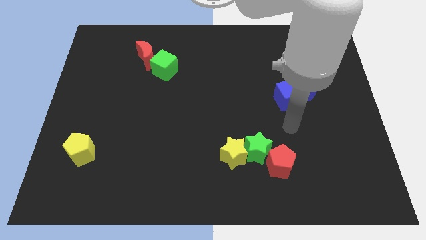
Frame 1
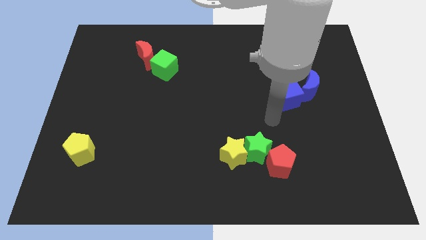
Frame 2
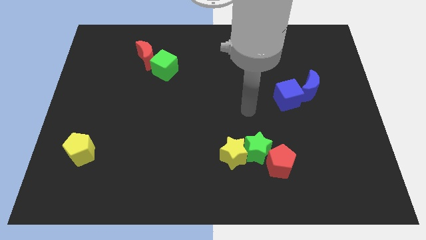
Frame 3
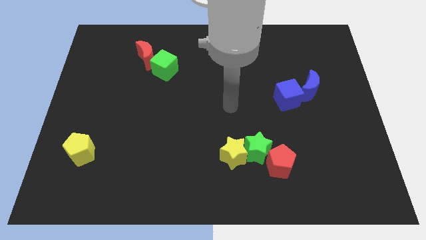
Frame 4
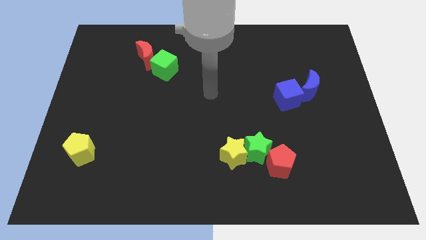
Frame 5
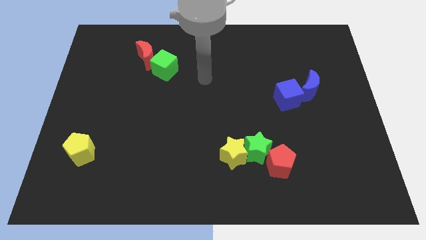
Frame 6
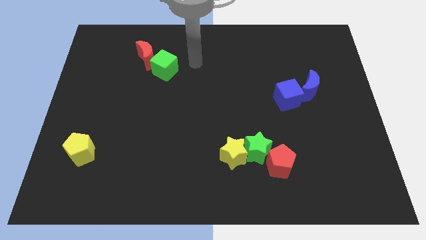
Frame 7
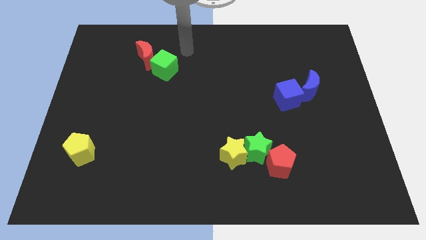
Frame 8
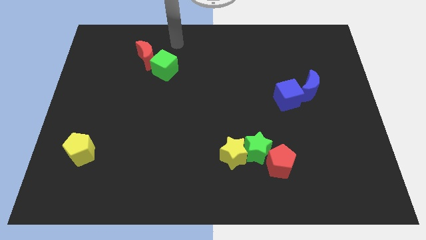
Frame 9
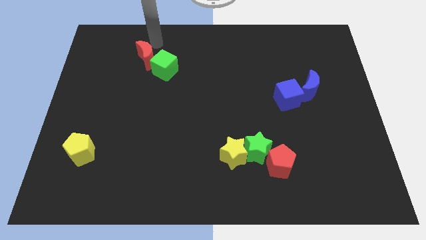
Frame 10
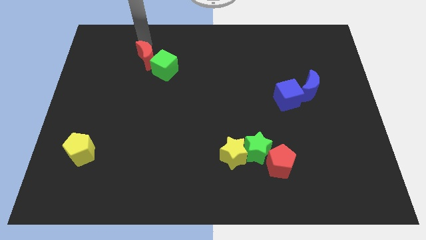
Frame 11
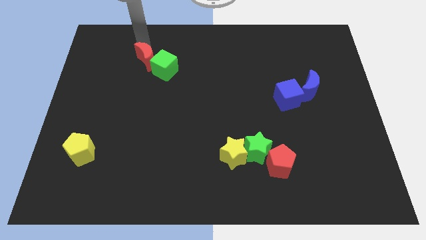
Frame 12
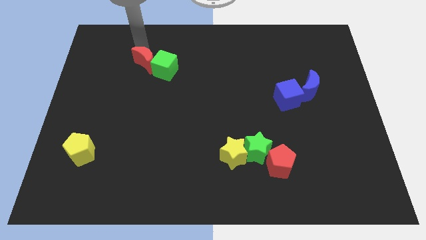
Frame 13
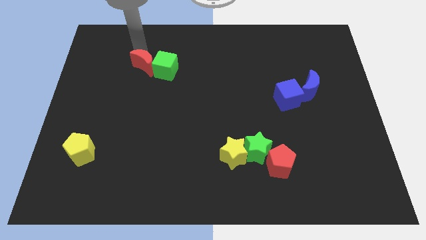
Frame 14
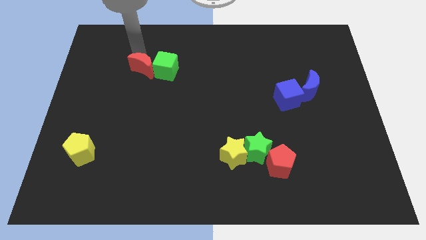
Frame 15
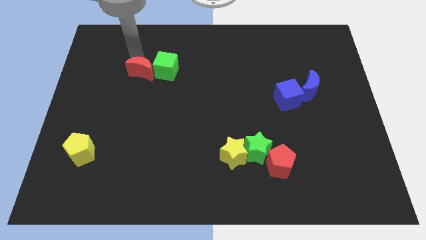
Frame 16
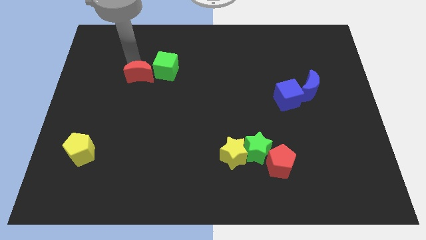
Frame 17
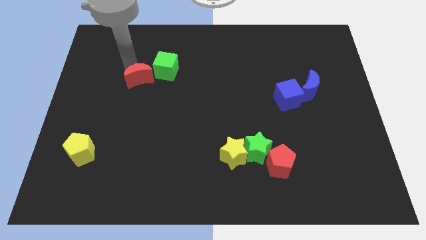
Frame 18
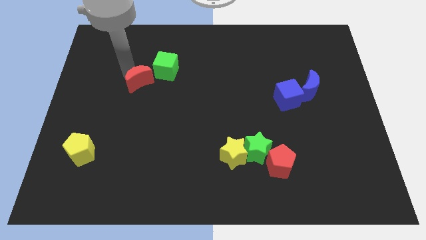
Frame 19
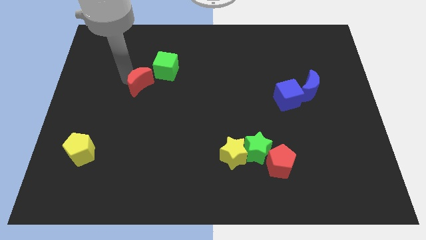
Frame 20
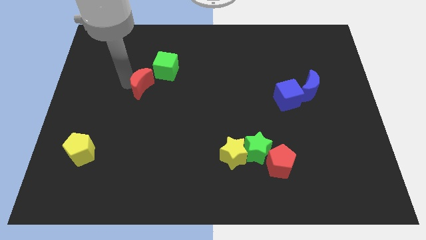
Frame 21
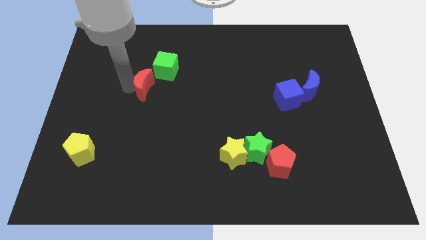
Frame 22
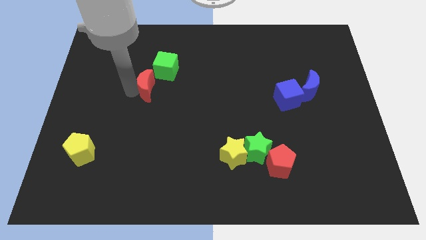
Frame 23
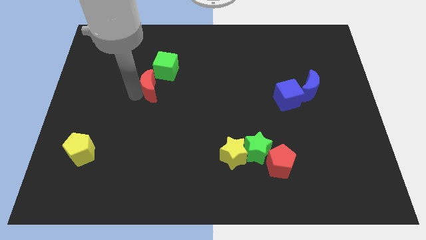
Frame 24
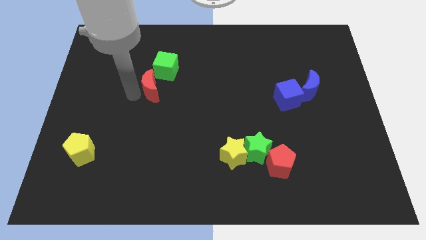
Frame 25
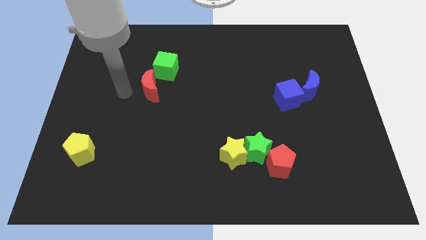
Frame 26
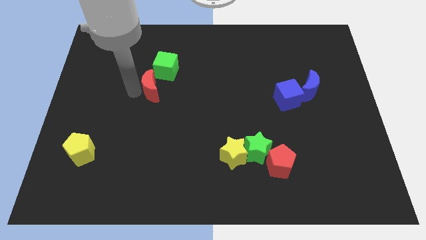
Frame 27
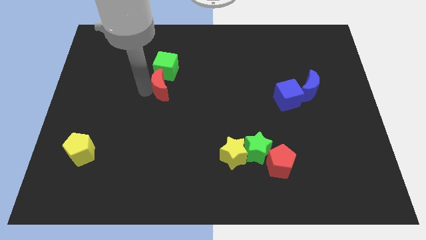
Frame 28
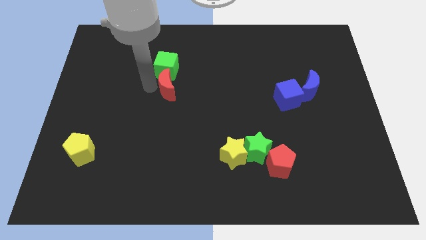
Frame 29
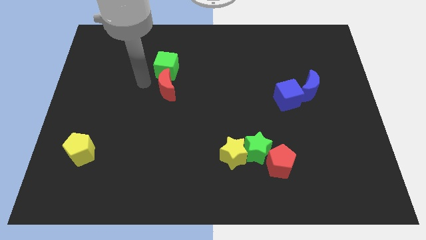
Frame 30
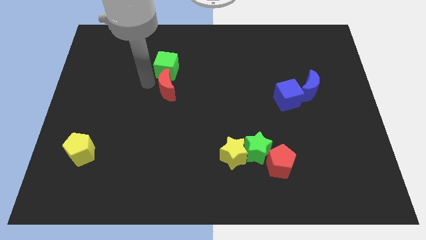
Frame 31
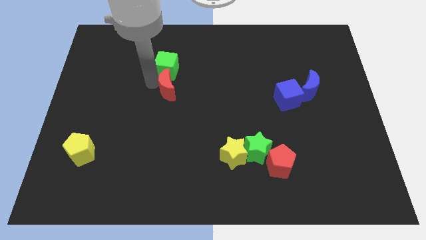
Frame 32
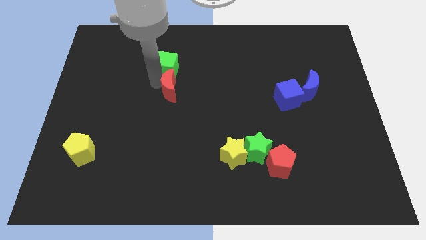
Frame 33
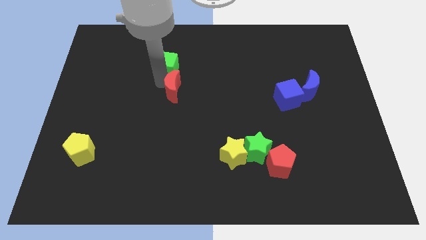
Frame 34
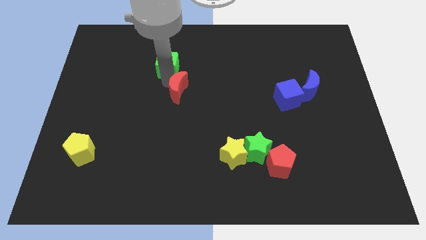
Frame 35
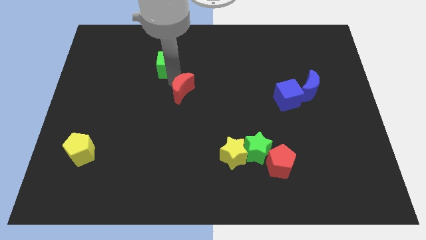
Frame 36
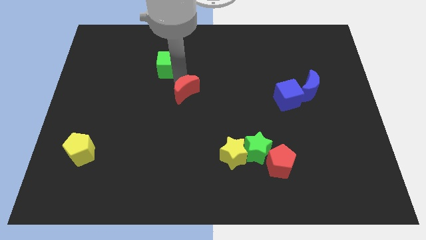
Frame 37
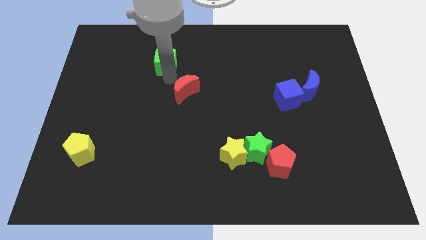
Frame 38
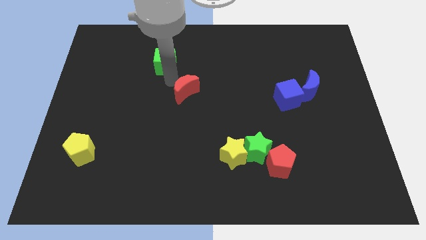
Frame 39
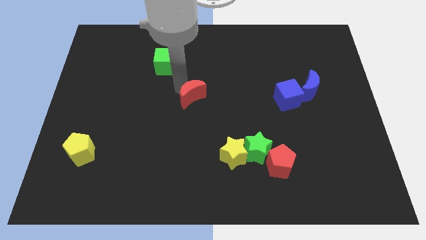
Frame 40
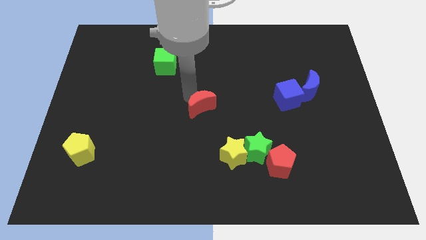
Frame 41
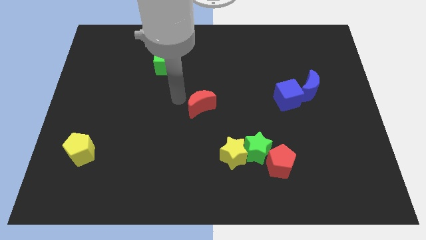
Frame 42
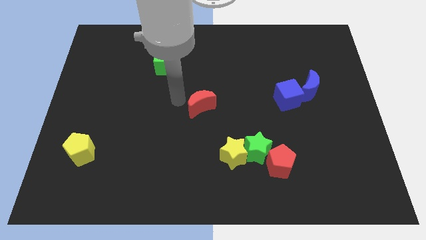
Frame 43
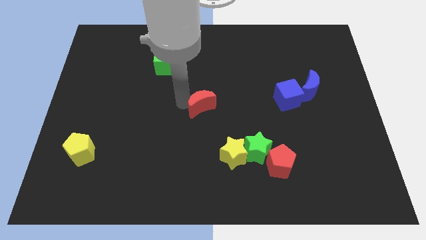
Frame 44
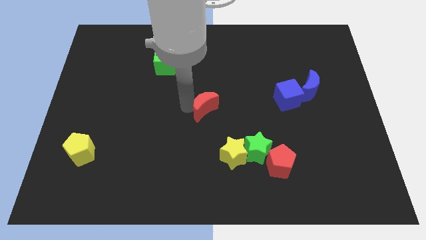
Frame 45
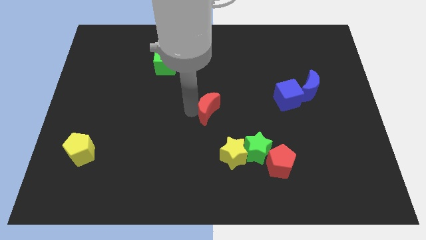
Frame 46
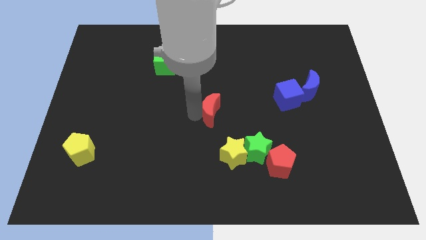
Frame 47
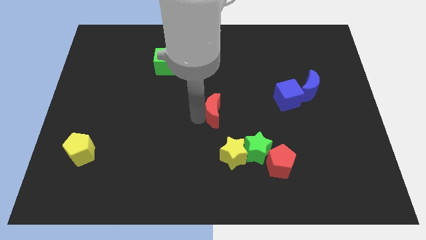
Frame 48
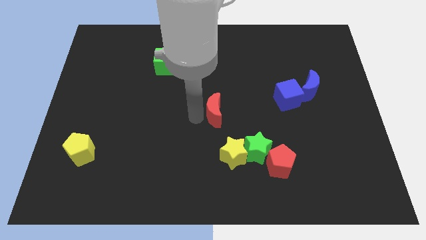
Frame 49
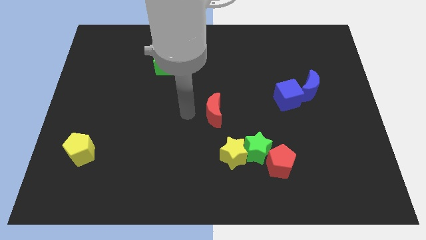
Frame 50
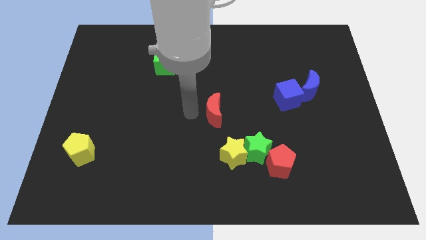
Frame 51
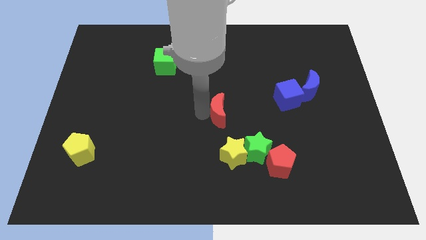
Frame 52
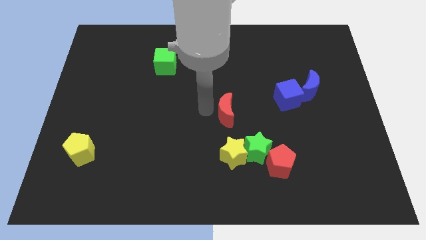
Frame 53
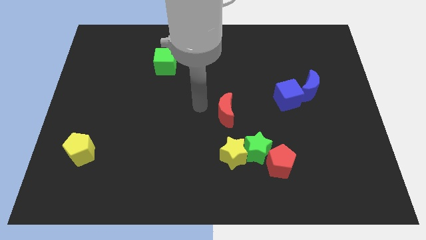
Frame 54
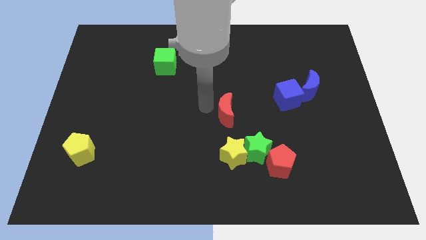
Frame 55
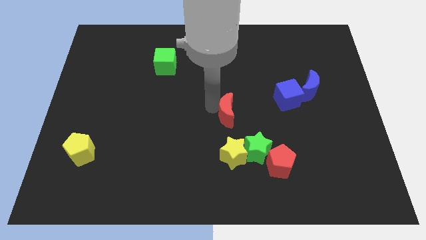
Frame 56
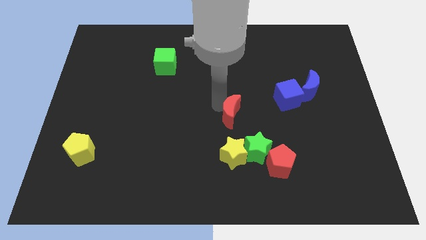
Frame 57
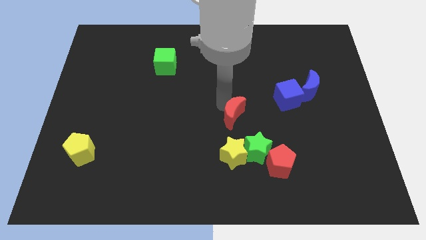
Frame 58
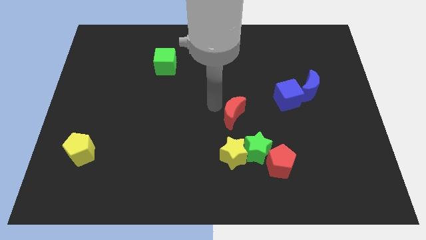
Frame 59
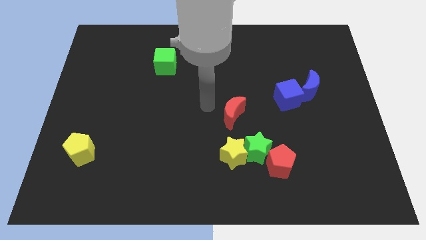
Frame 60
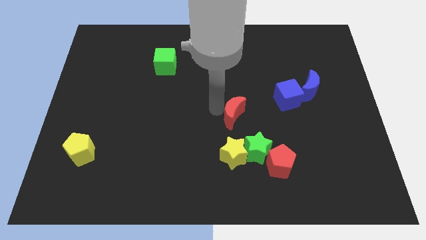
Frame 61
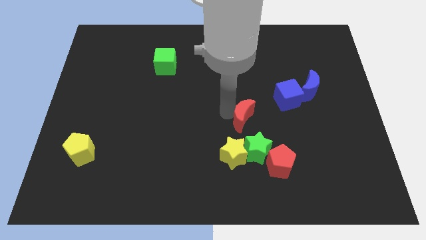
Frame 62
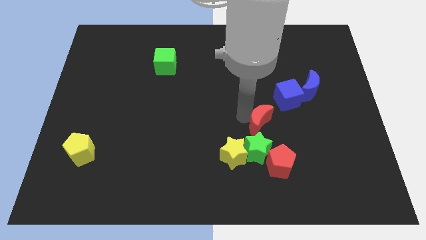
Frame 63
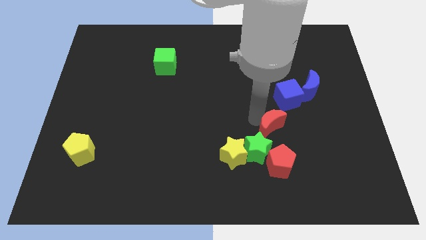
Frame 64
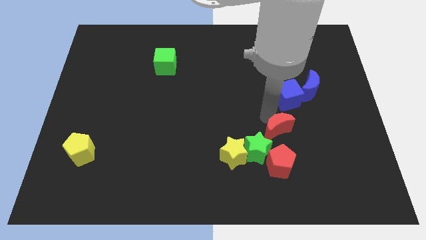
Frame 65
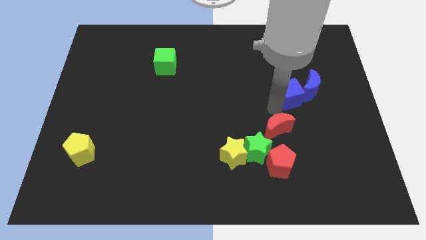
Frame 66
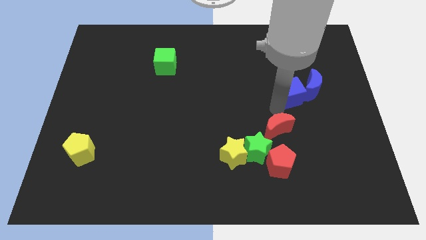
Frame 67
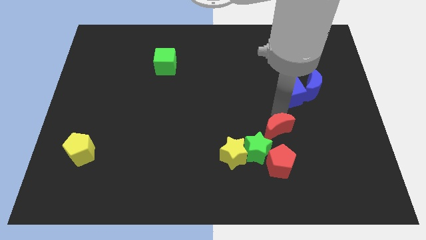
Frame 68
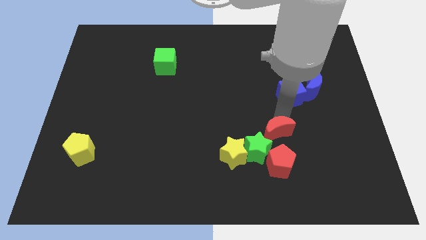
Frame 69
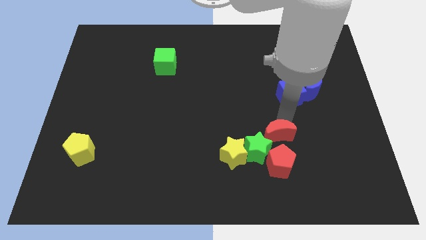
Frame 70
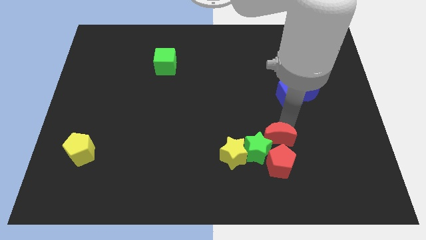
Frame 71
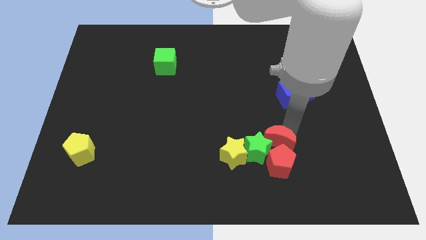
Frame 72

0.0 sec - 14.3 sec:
slide the red moon next to the red pentagon
